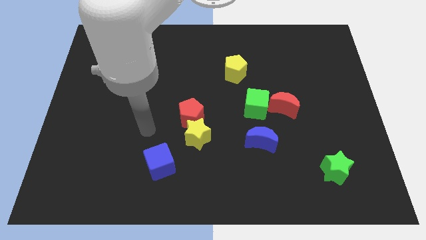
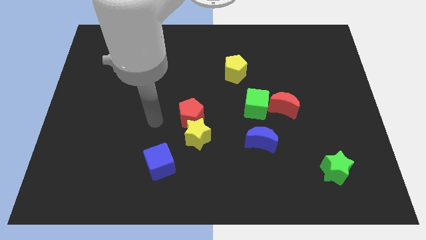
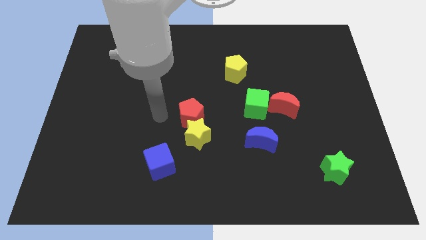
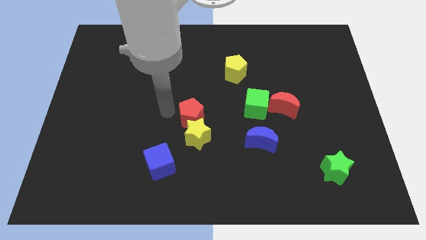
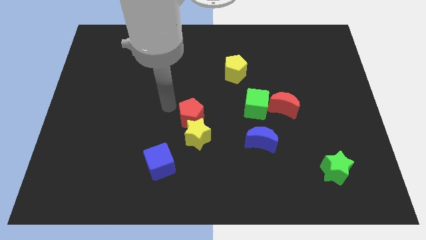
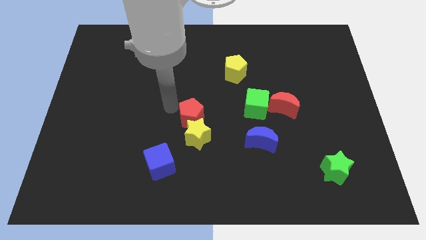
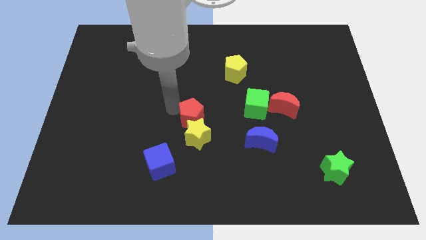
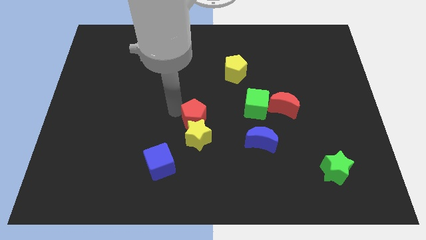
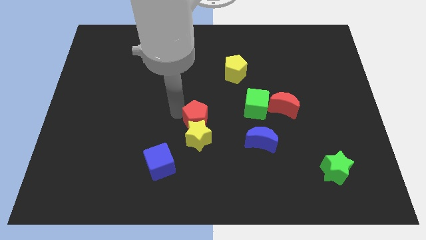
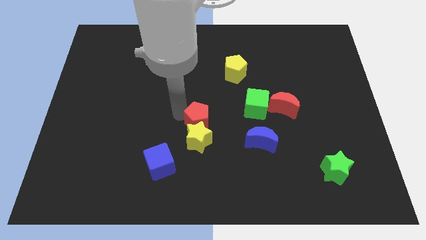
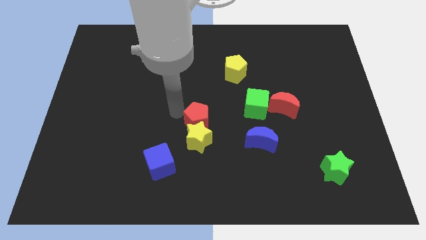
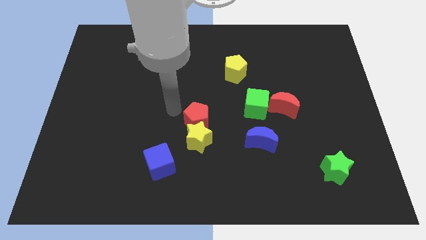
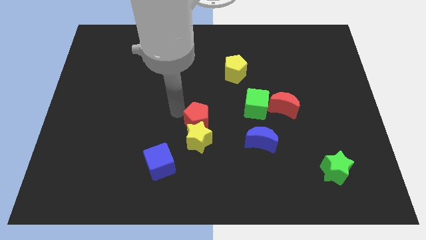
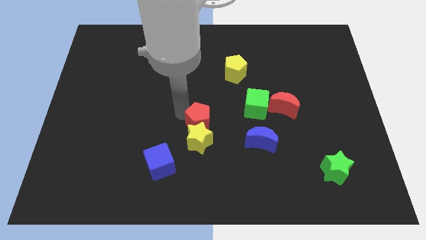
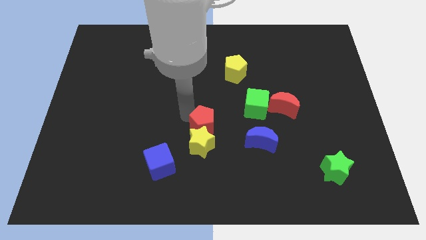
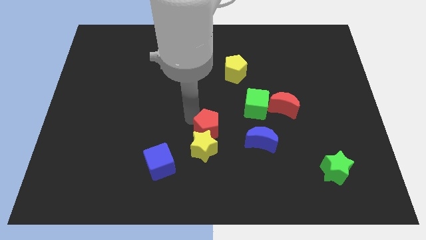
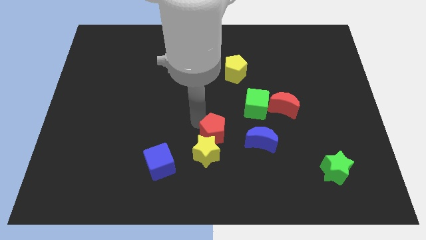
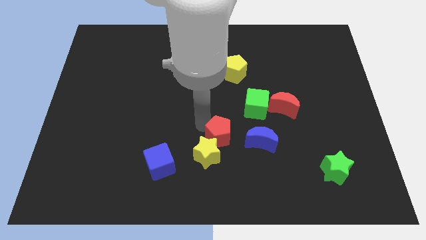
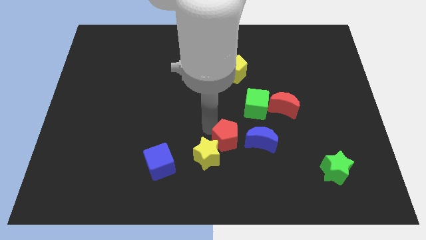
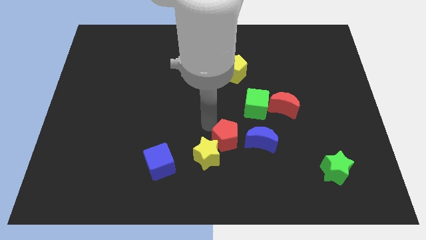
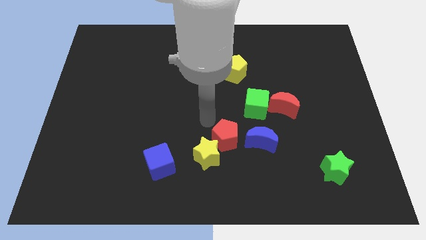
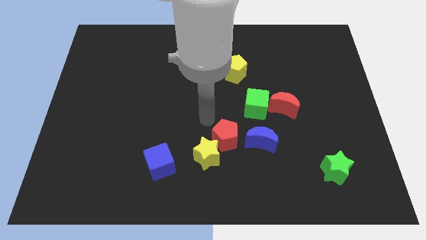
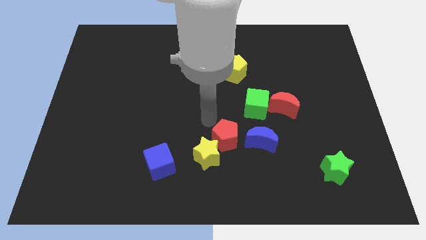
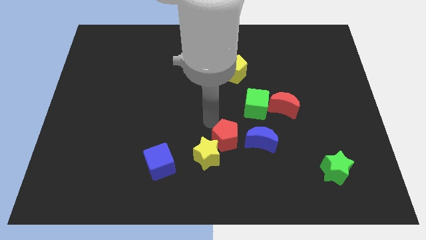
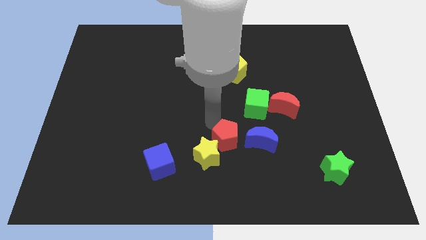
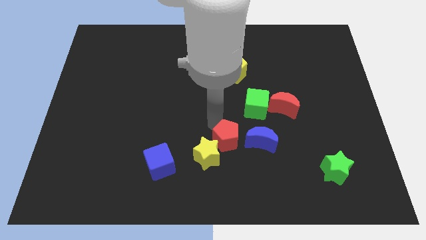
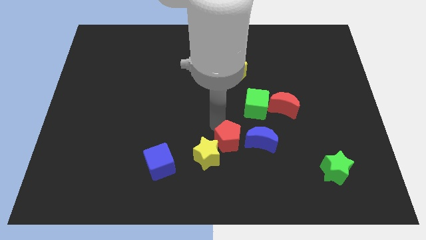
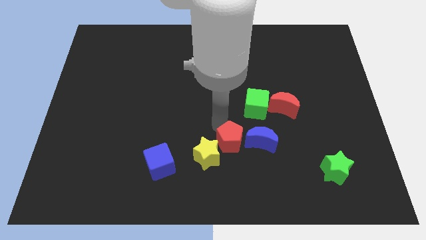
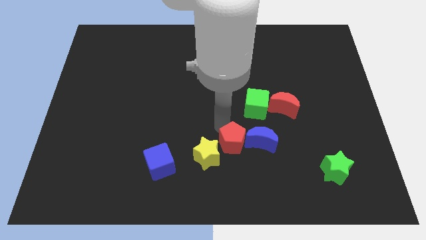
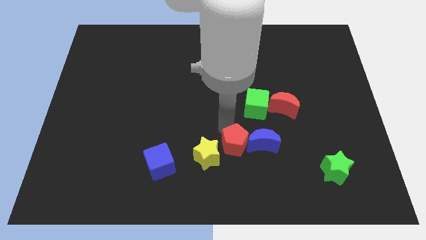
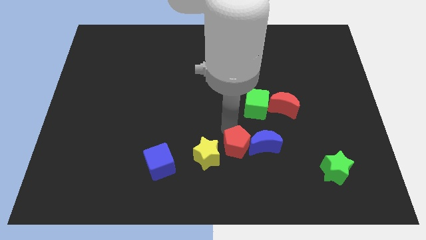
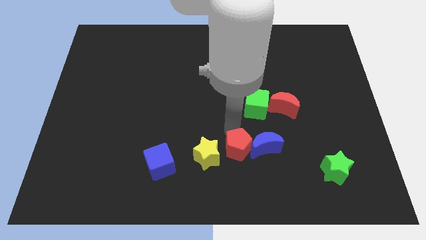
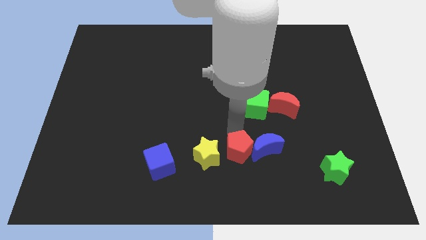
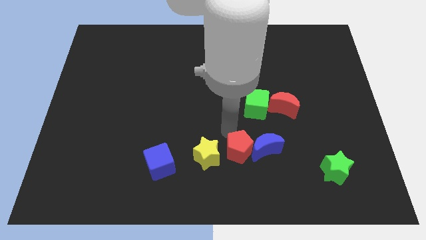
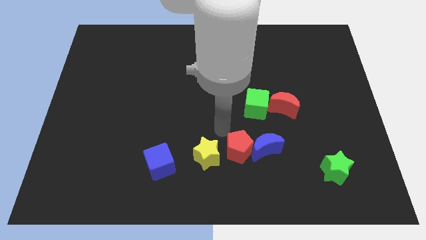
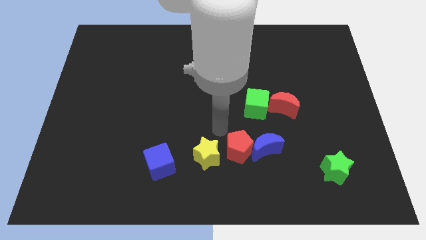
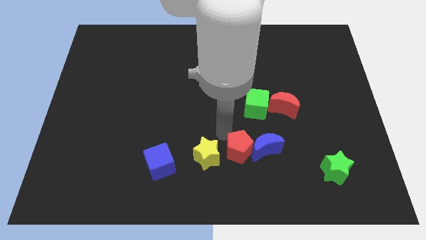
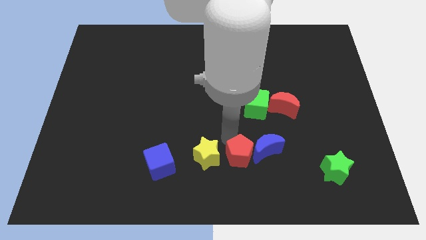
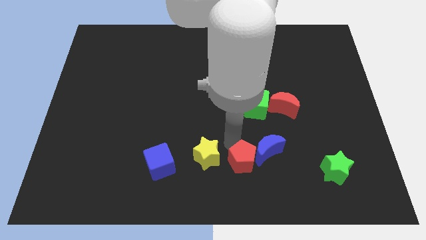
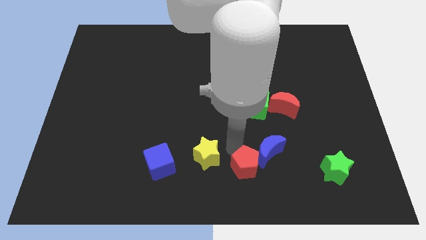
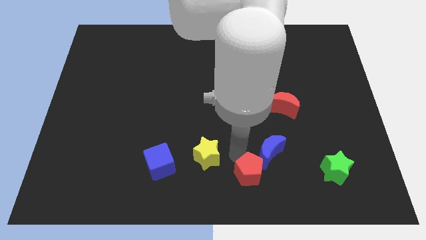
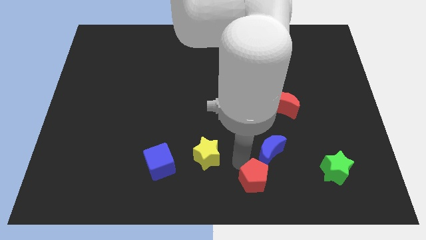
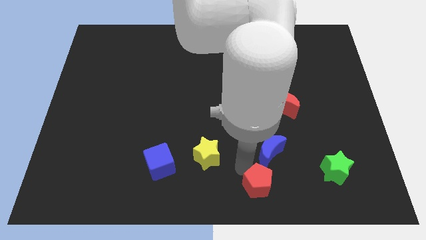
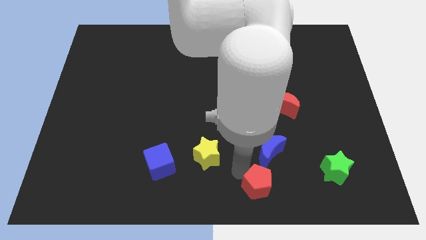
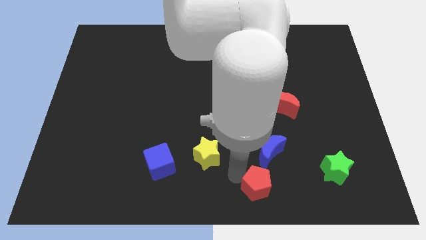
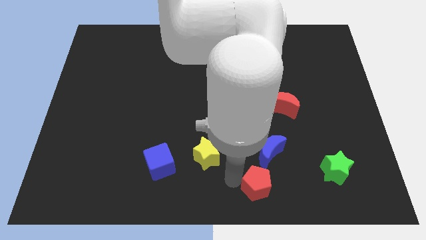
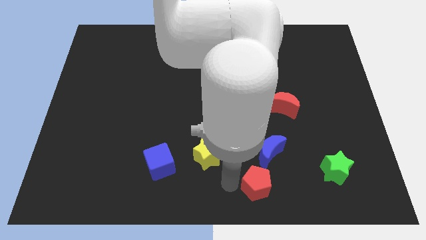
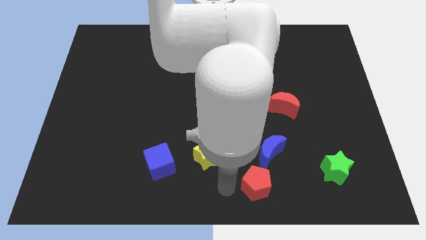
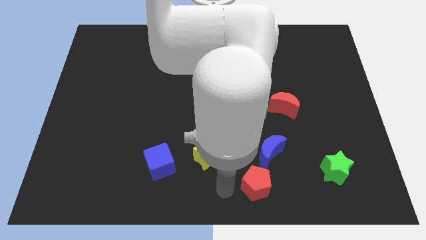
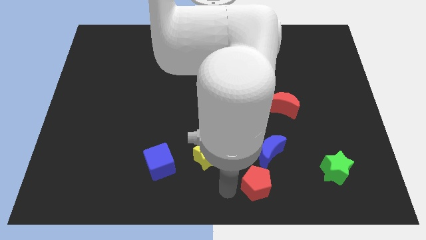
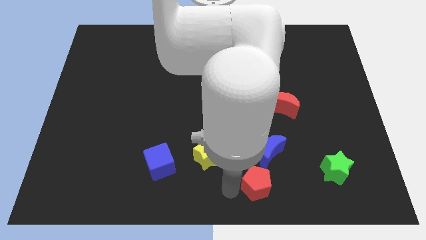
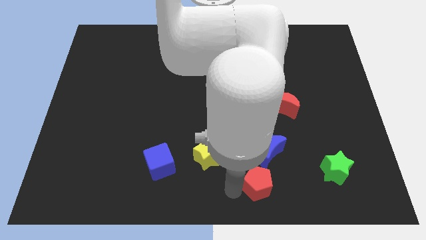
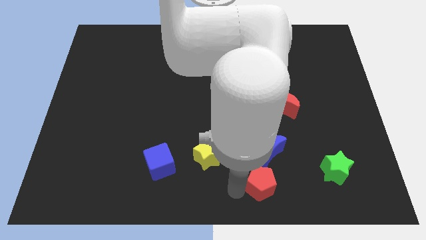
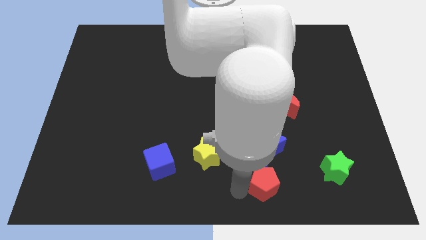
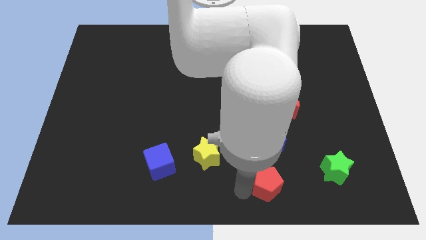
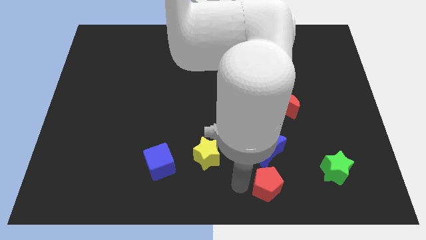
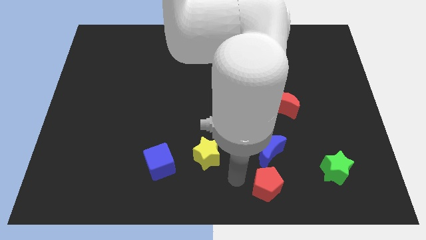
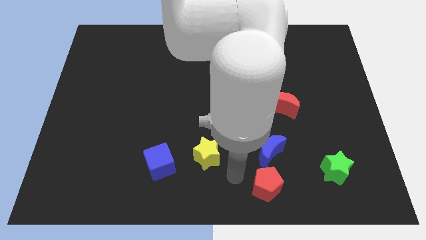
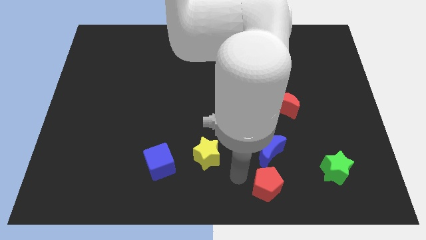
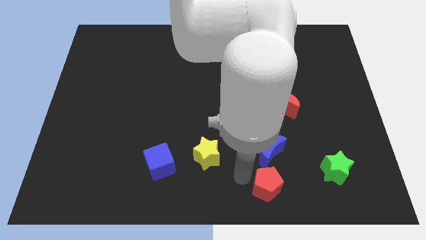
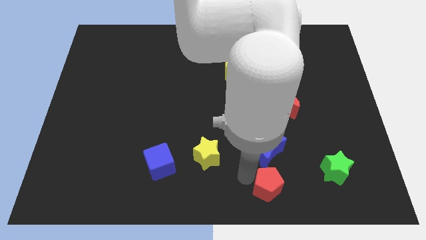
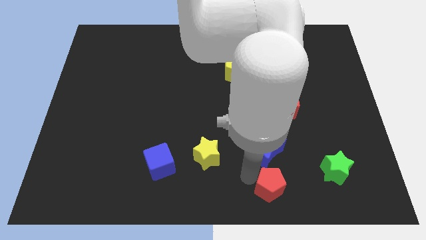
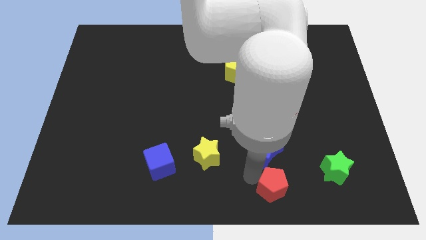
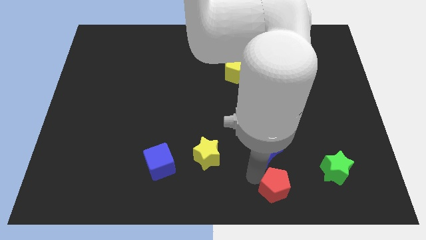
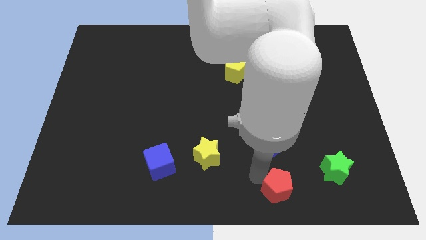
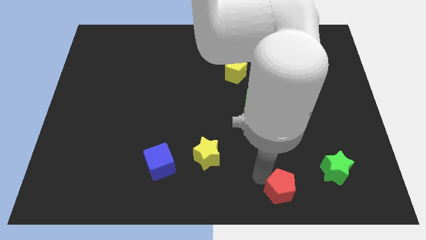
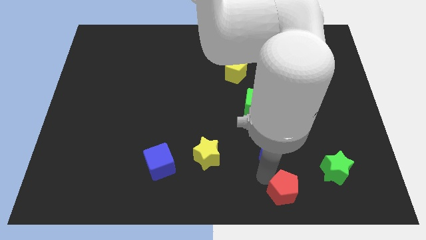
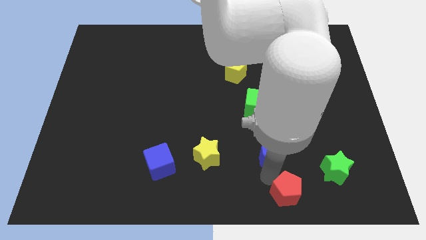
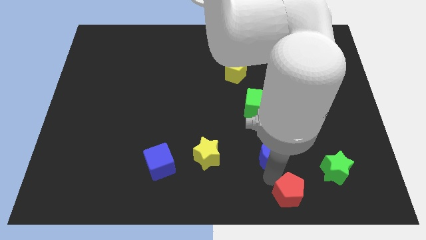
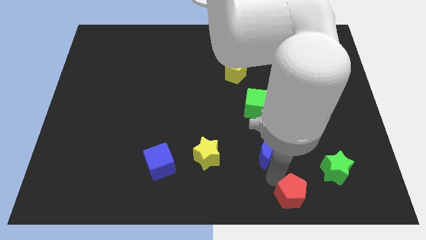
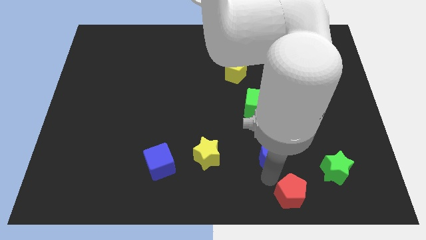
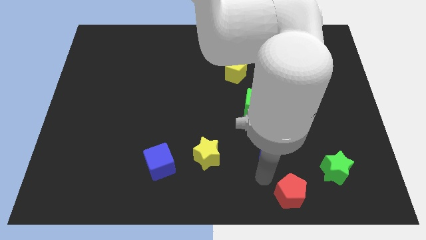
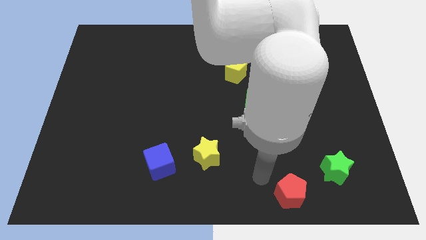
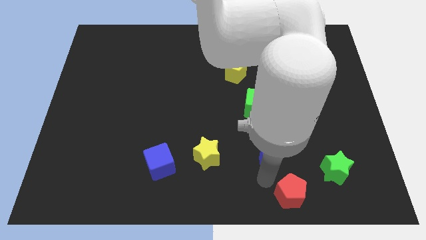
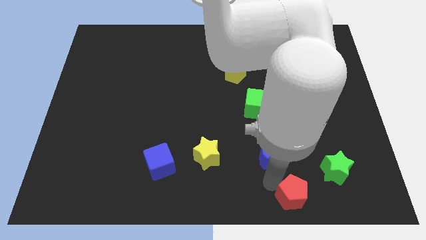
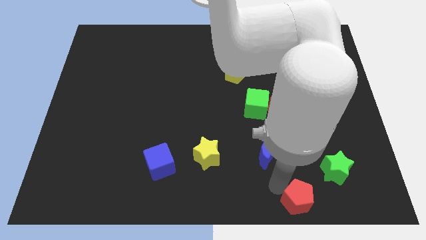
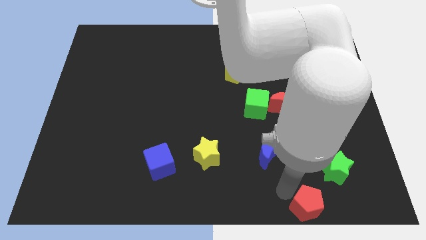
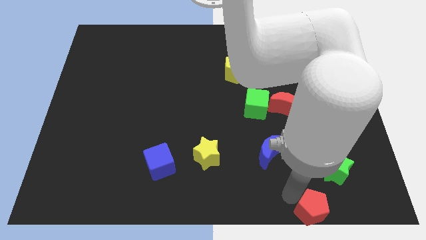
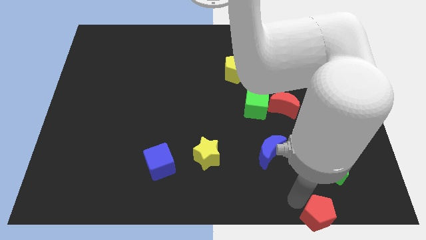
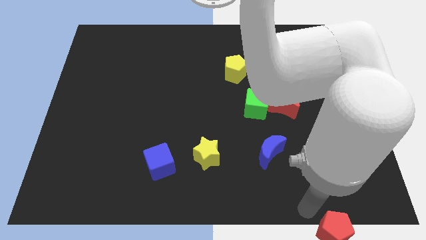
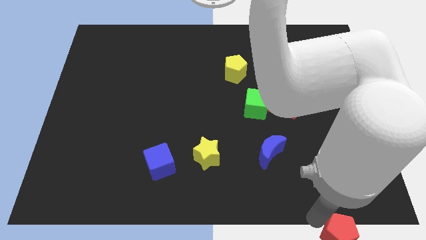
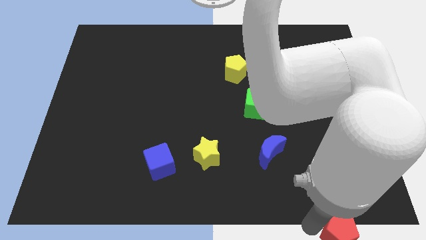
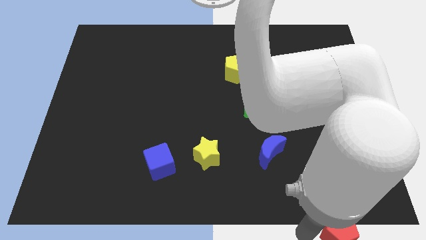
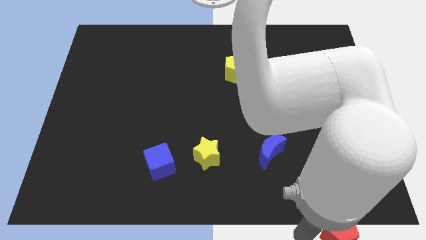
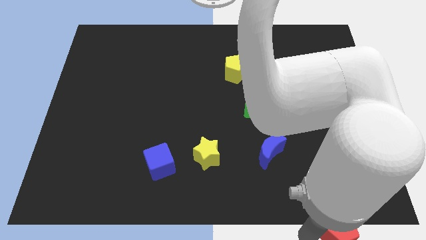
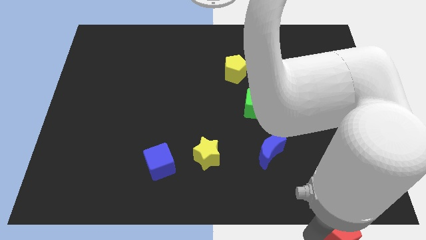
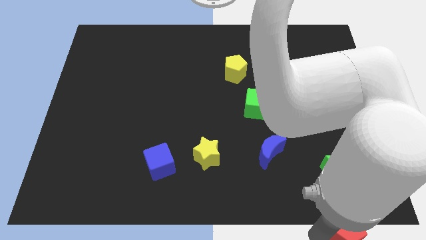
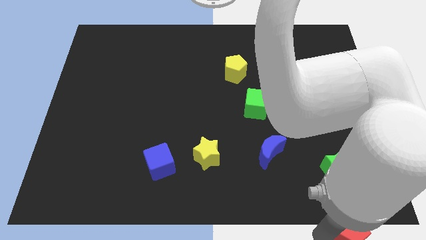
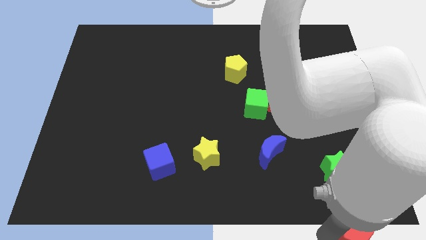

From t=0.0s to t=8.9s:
put the red pentagon to the bottom right of the board
